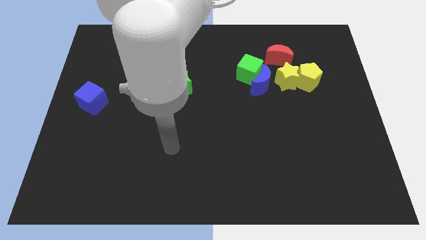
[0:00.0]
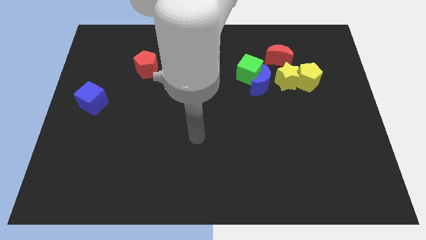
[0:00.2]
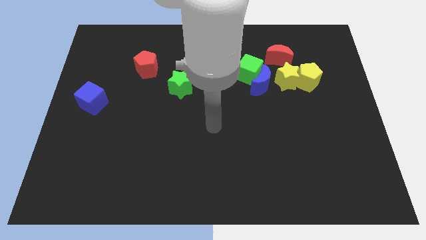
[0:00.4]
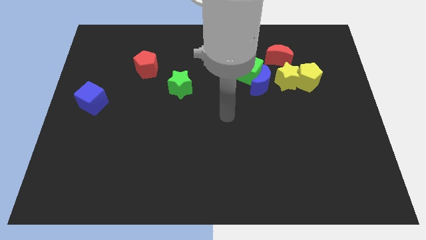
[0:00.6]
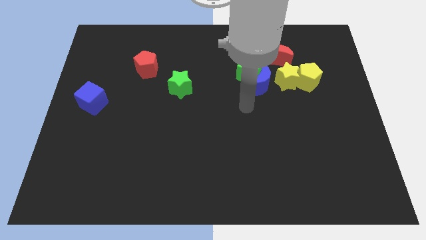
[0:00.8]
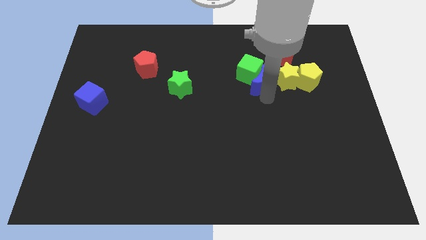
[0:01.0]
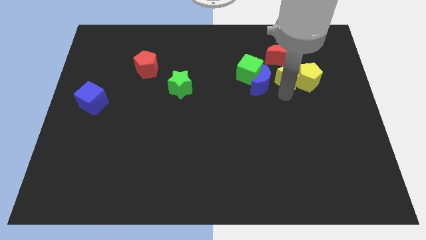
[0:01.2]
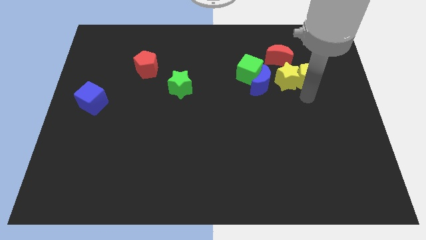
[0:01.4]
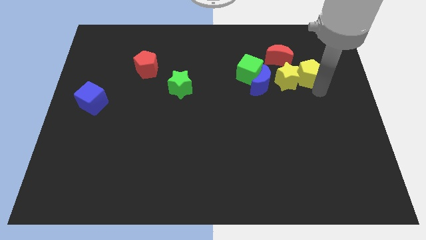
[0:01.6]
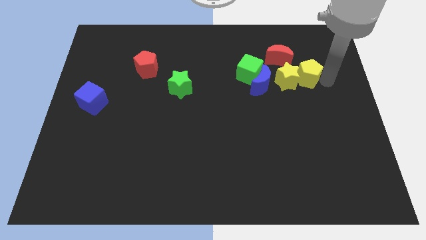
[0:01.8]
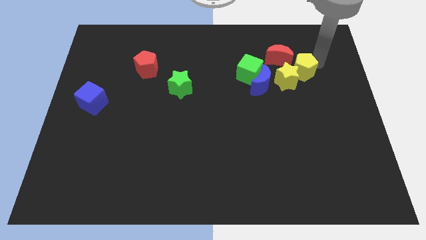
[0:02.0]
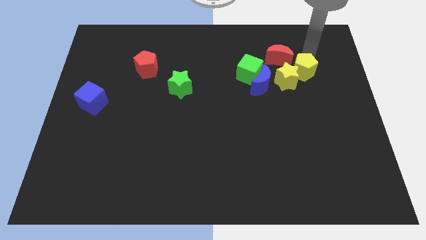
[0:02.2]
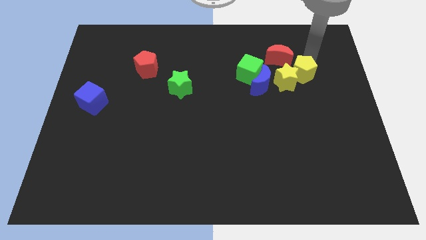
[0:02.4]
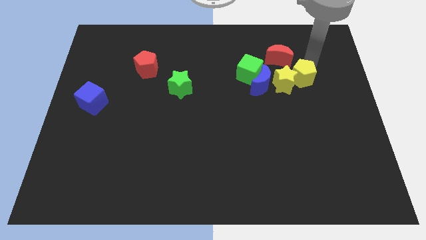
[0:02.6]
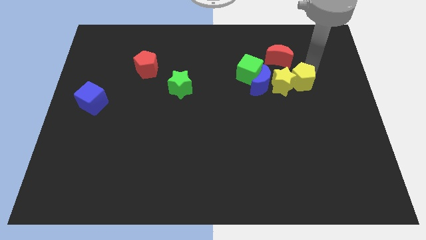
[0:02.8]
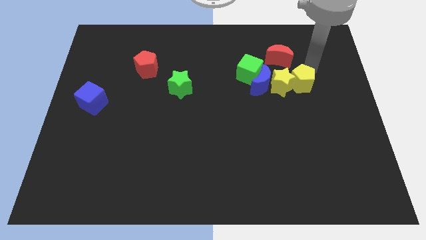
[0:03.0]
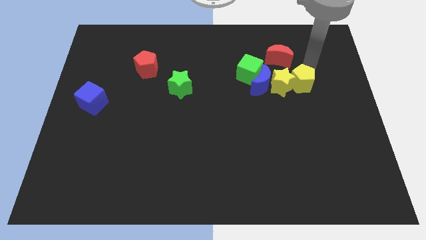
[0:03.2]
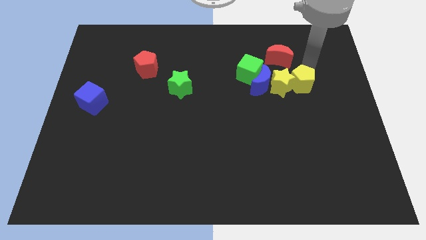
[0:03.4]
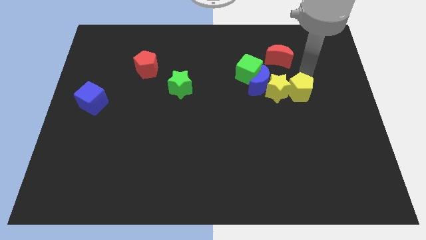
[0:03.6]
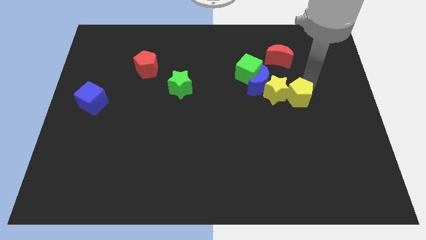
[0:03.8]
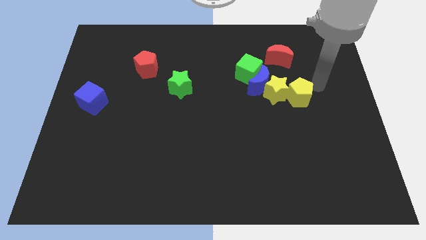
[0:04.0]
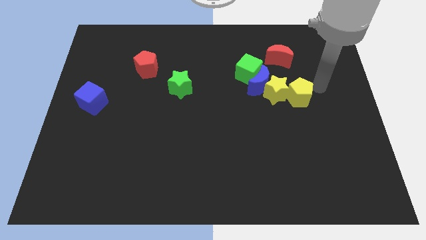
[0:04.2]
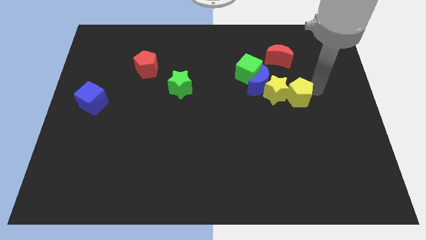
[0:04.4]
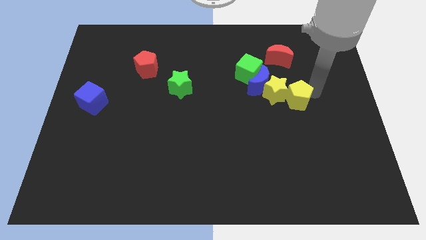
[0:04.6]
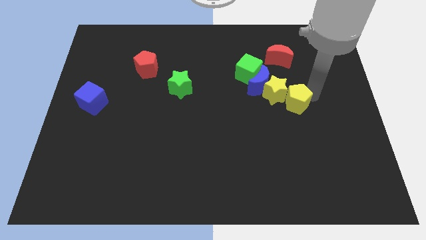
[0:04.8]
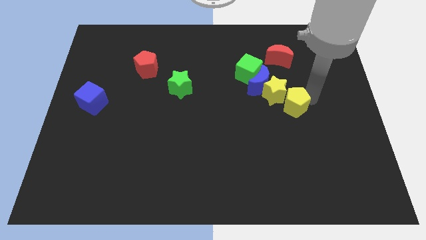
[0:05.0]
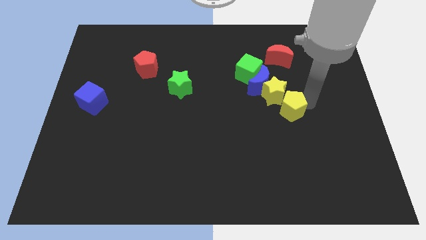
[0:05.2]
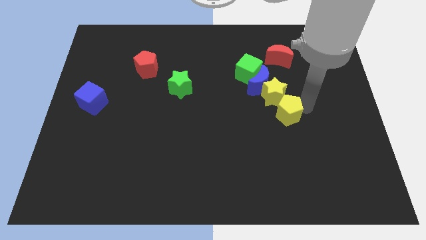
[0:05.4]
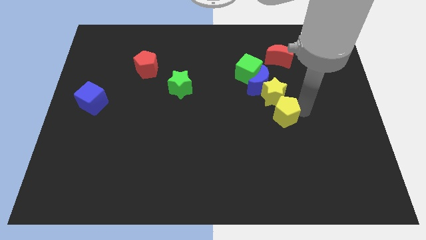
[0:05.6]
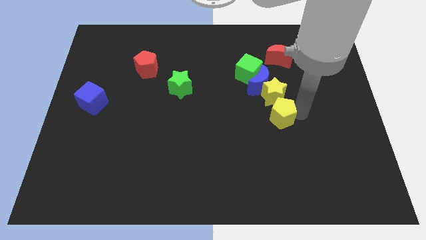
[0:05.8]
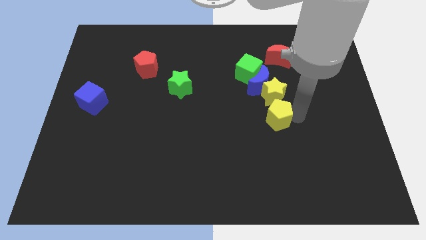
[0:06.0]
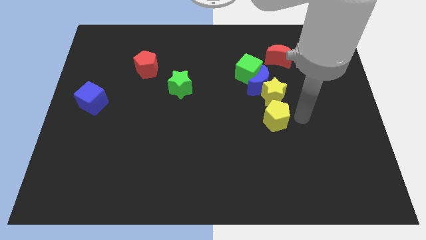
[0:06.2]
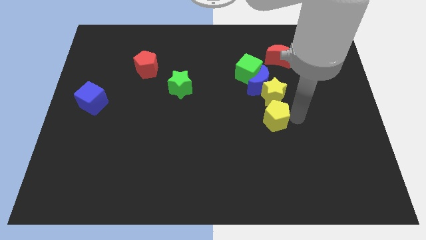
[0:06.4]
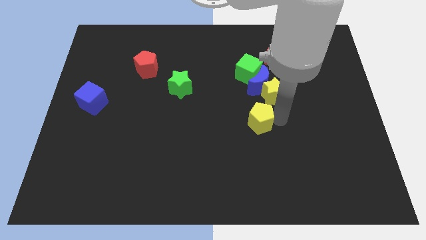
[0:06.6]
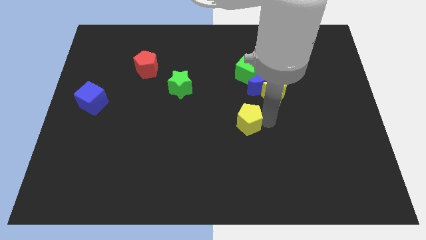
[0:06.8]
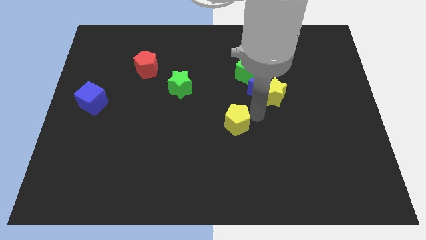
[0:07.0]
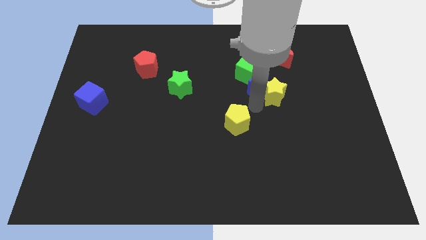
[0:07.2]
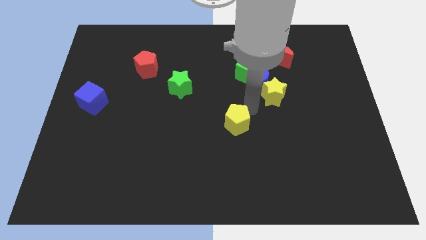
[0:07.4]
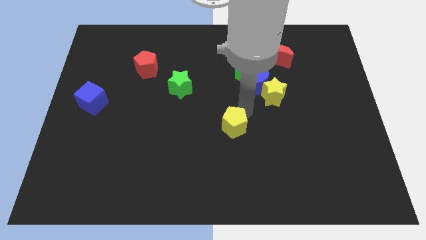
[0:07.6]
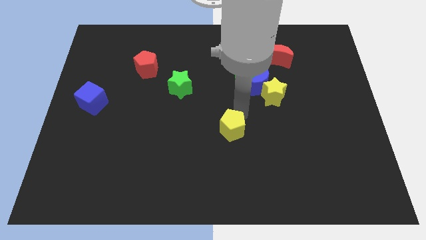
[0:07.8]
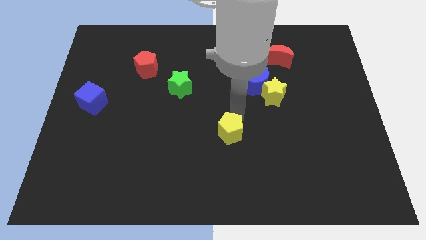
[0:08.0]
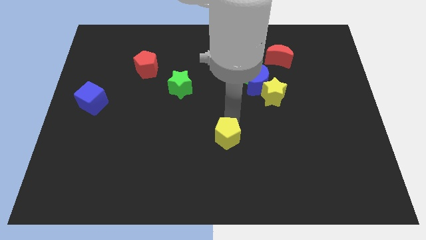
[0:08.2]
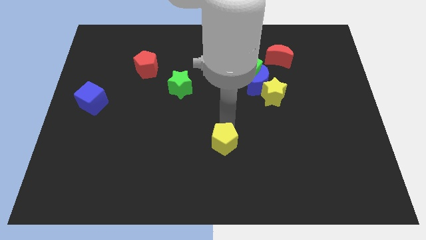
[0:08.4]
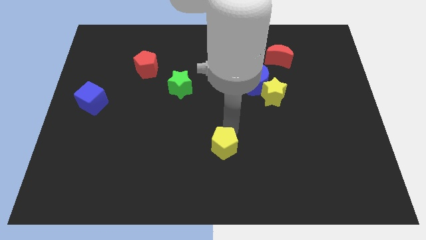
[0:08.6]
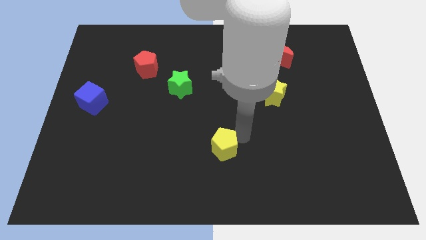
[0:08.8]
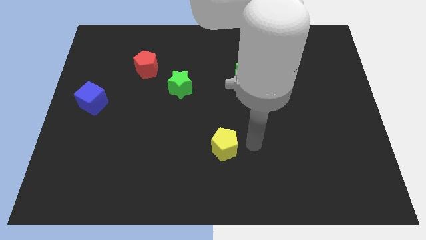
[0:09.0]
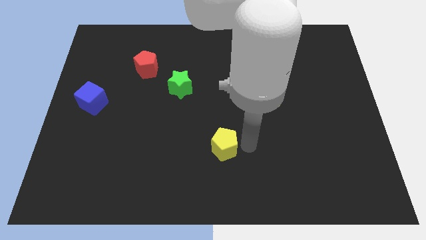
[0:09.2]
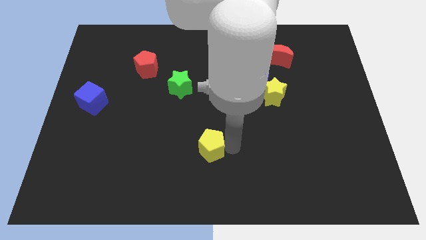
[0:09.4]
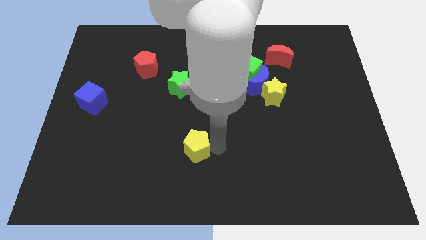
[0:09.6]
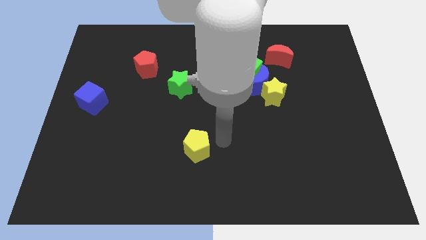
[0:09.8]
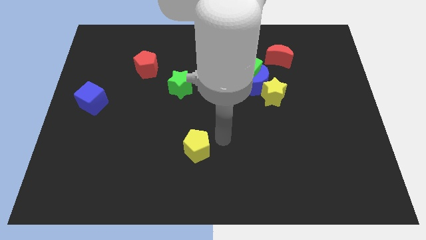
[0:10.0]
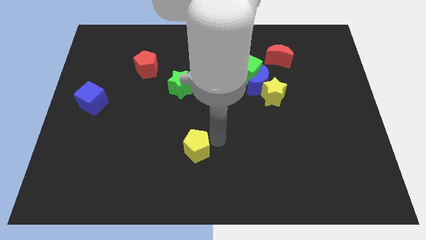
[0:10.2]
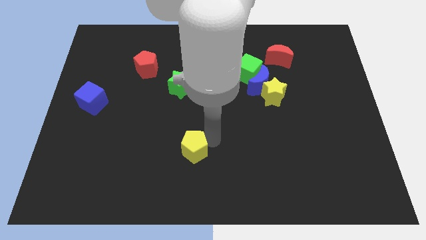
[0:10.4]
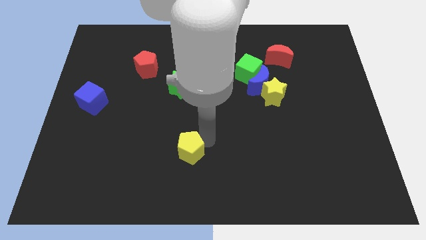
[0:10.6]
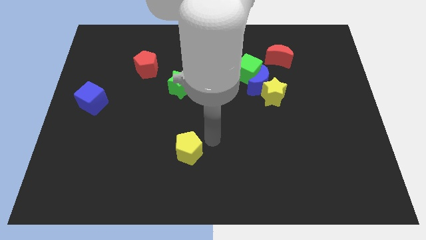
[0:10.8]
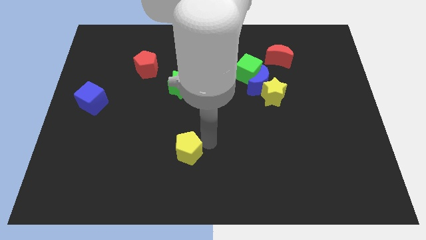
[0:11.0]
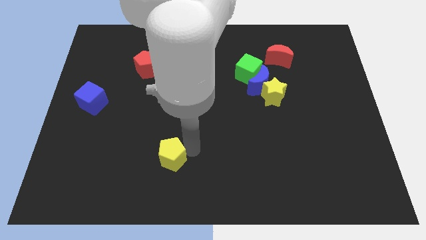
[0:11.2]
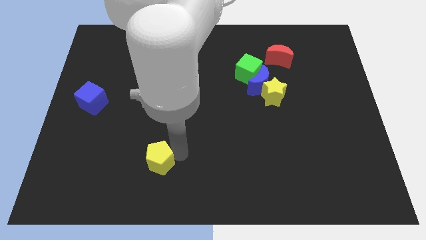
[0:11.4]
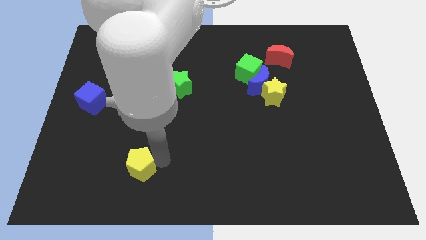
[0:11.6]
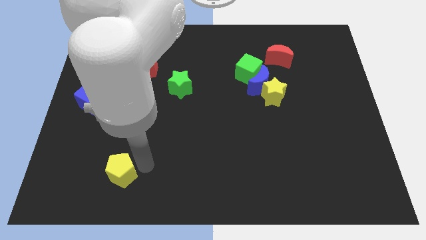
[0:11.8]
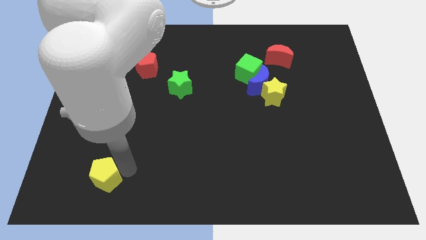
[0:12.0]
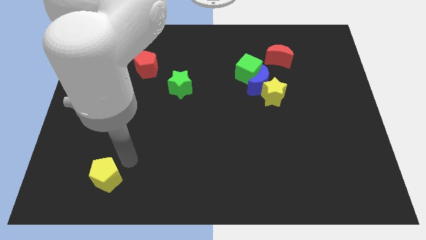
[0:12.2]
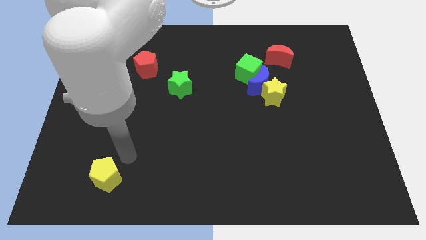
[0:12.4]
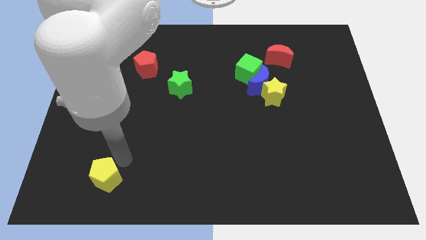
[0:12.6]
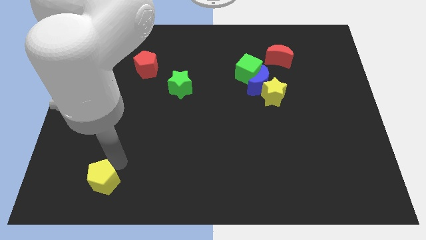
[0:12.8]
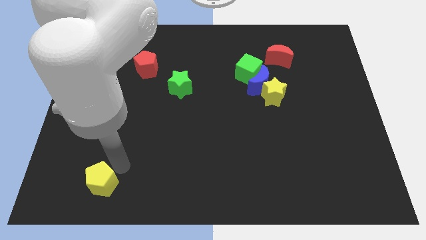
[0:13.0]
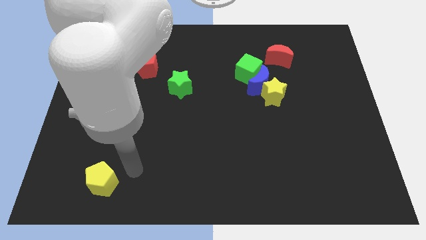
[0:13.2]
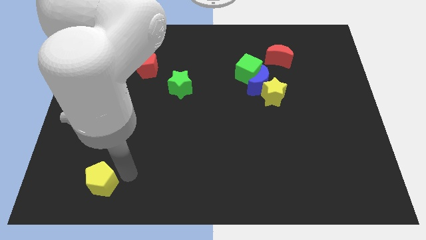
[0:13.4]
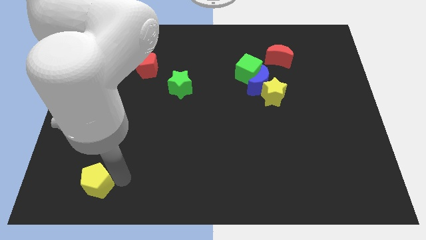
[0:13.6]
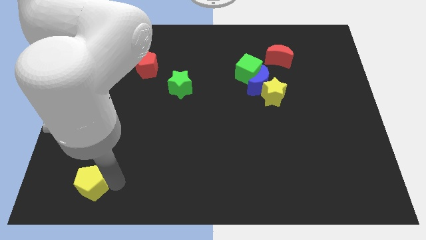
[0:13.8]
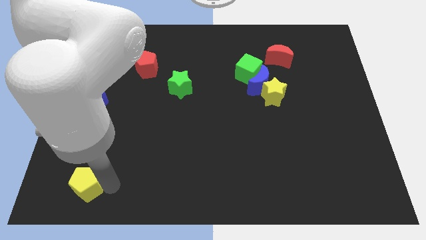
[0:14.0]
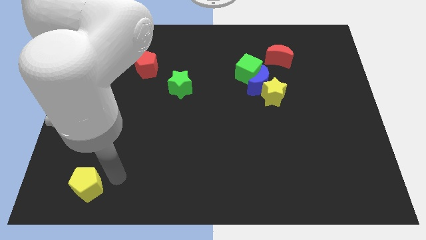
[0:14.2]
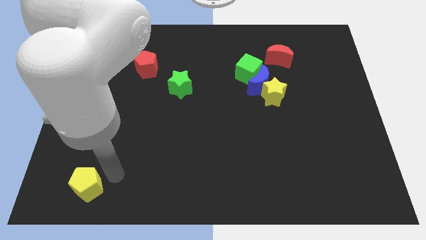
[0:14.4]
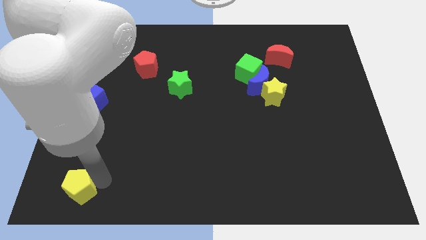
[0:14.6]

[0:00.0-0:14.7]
push the yellow pentagon to the bottom left corner

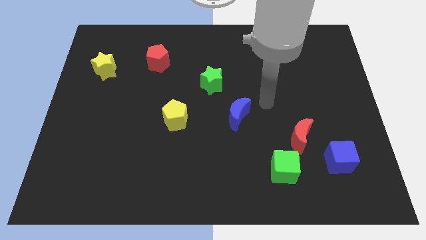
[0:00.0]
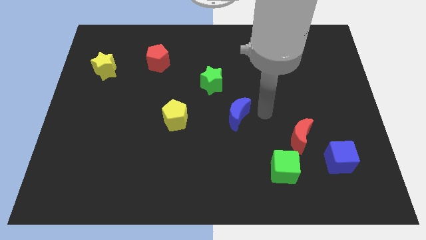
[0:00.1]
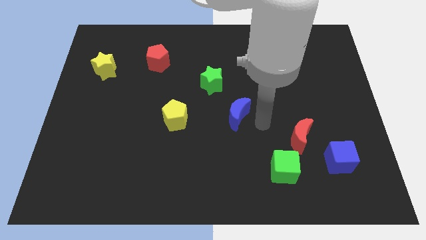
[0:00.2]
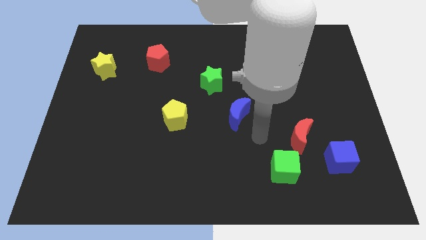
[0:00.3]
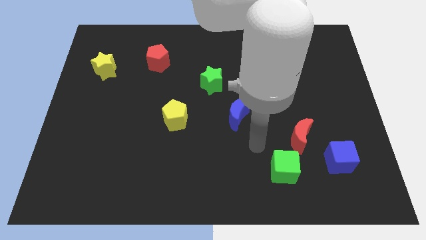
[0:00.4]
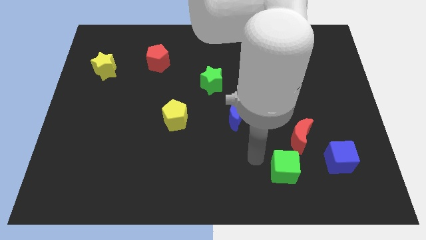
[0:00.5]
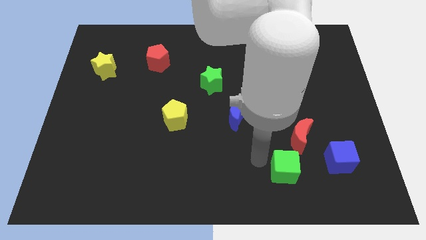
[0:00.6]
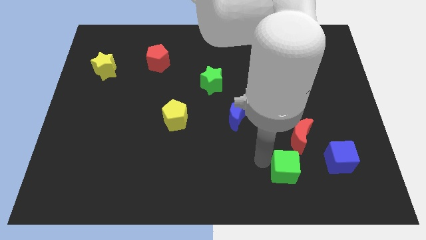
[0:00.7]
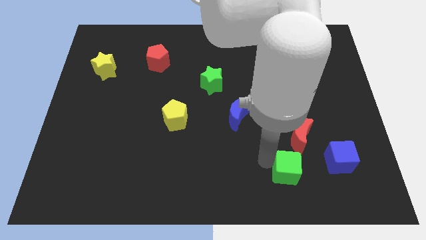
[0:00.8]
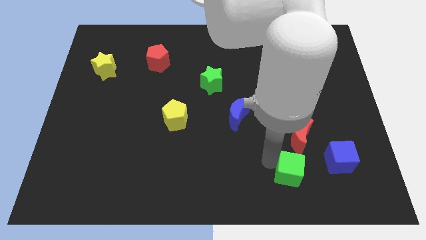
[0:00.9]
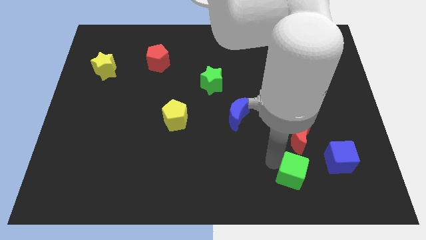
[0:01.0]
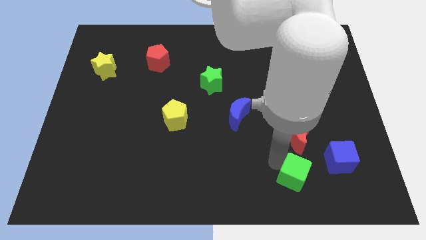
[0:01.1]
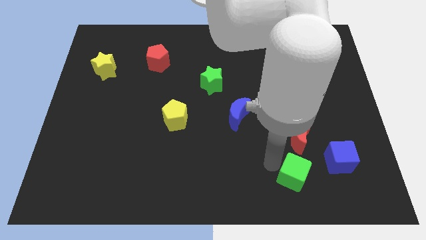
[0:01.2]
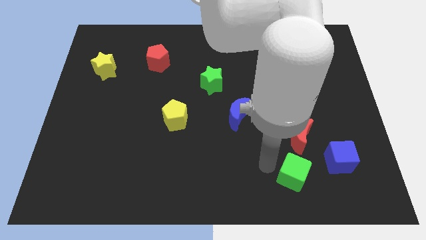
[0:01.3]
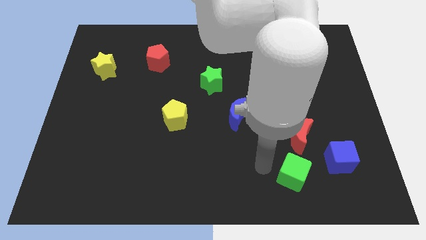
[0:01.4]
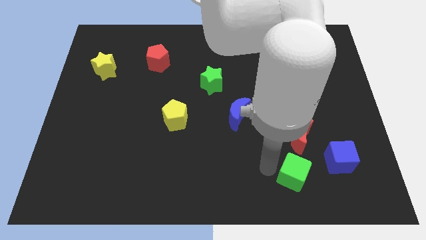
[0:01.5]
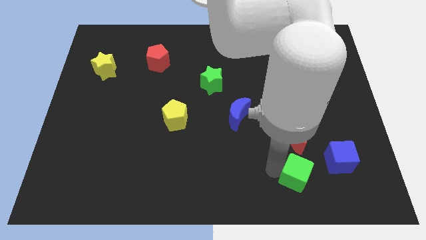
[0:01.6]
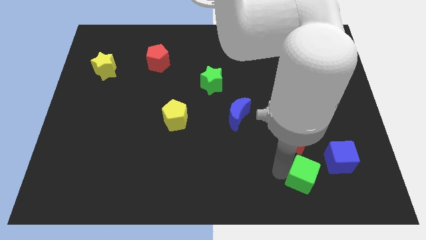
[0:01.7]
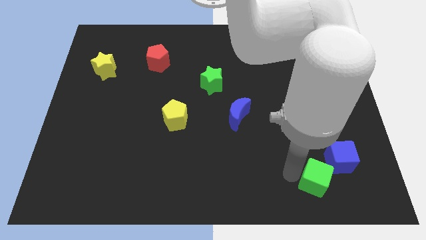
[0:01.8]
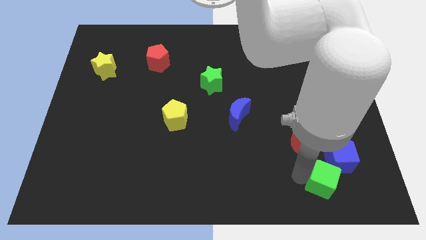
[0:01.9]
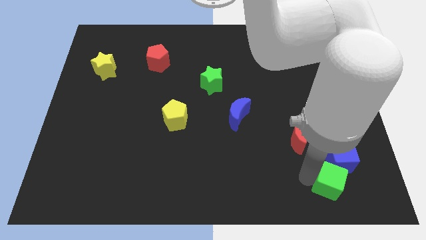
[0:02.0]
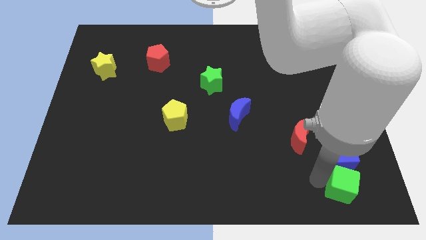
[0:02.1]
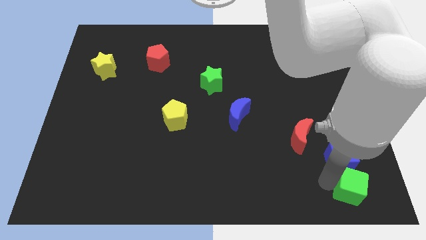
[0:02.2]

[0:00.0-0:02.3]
put the green cube to the bottom right
